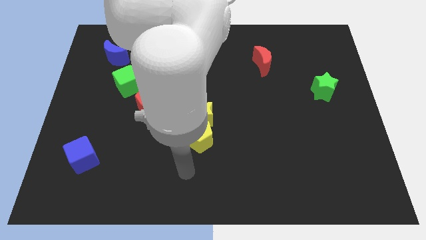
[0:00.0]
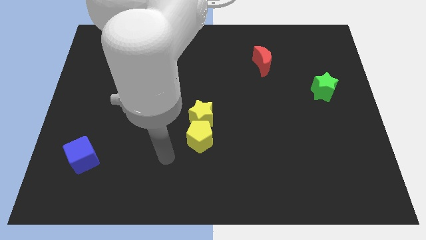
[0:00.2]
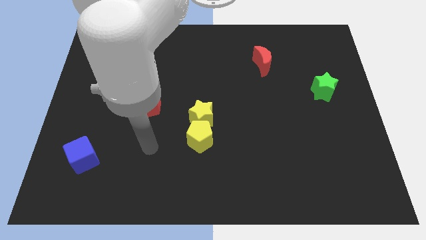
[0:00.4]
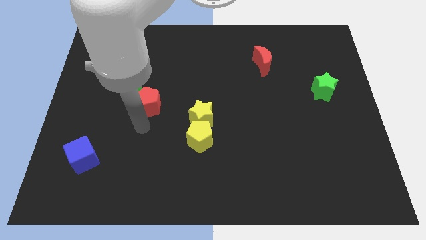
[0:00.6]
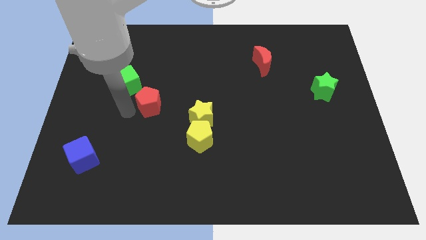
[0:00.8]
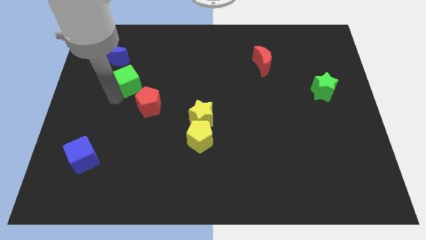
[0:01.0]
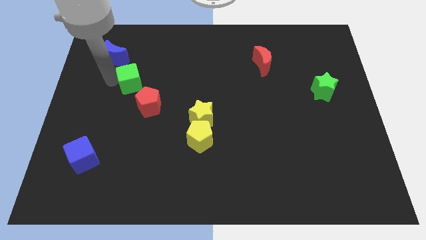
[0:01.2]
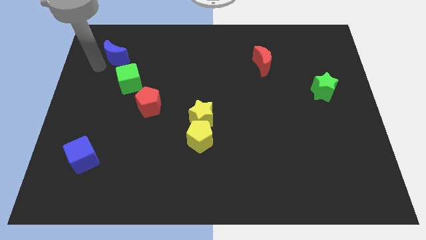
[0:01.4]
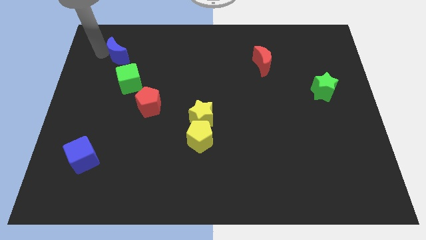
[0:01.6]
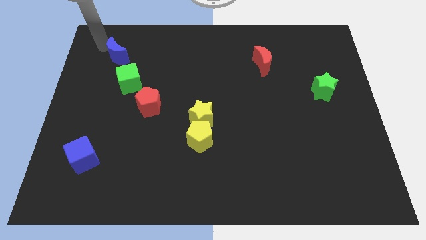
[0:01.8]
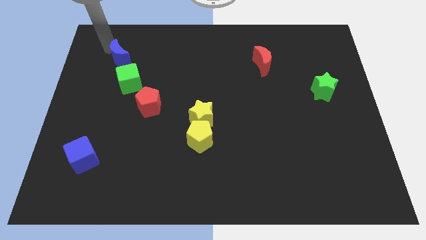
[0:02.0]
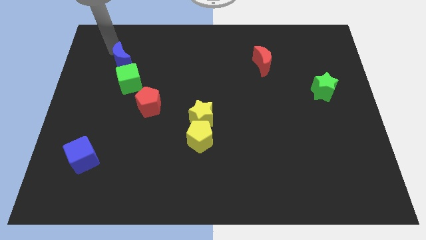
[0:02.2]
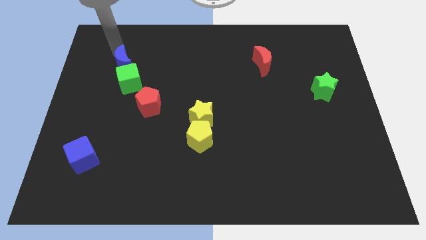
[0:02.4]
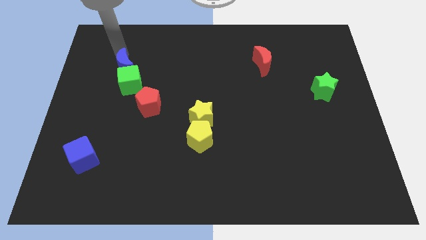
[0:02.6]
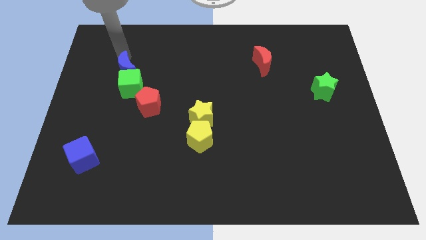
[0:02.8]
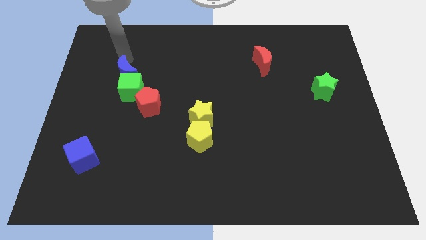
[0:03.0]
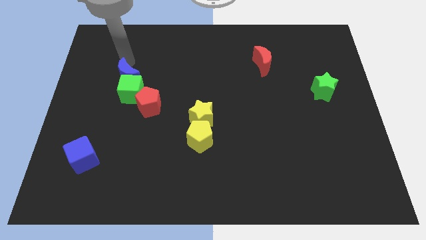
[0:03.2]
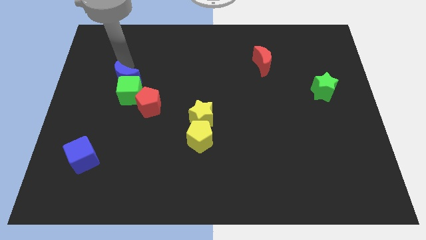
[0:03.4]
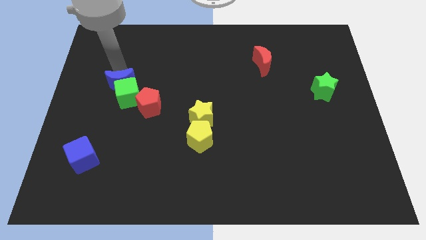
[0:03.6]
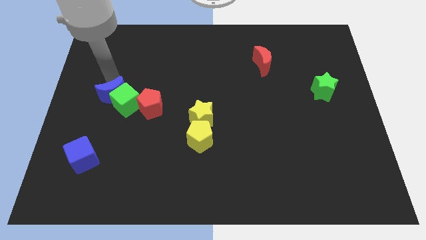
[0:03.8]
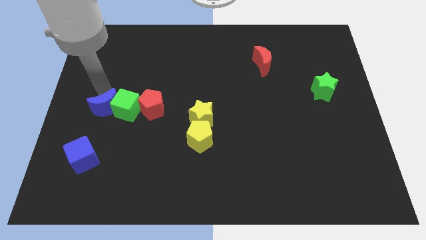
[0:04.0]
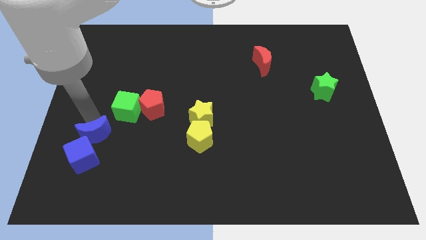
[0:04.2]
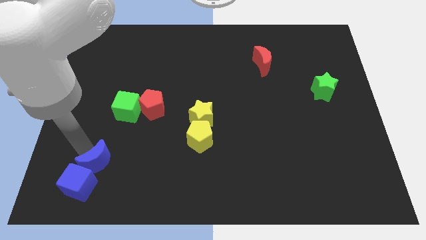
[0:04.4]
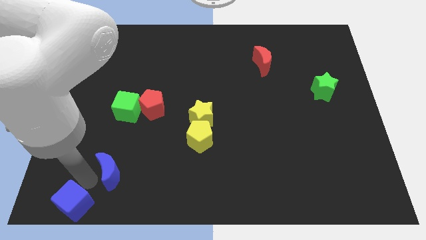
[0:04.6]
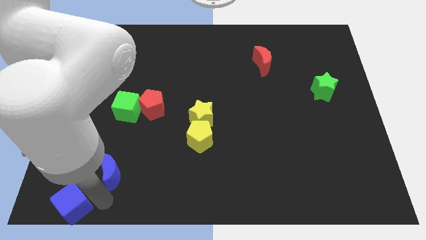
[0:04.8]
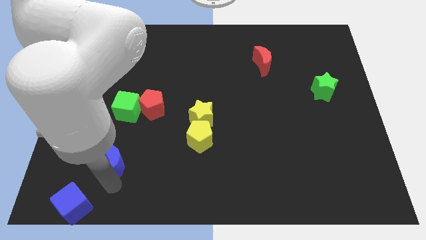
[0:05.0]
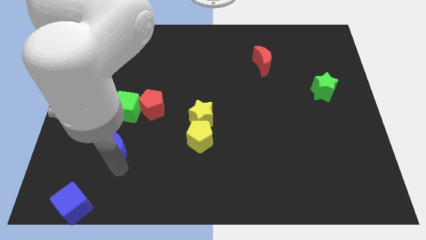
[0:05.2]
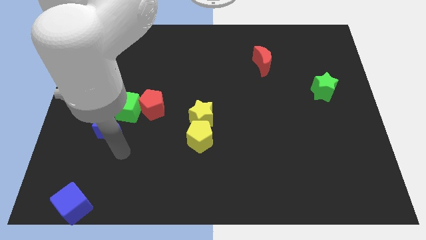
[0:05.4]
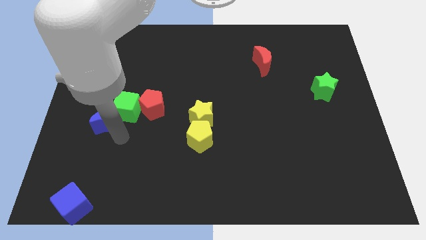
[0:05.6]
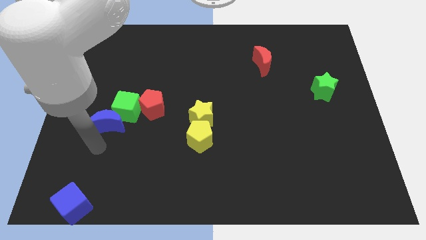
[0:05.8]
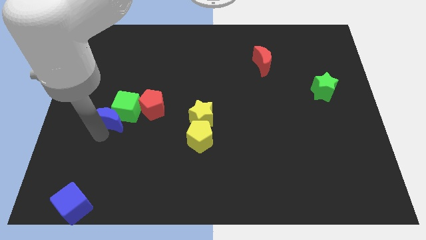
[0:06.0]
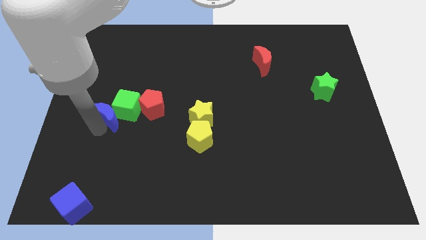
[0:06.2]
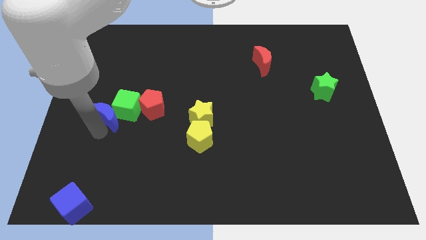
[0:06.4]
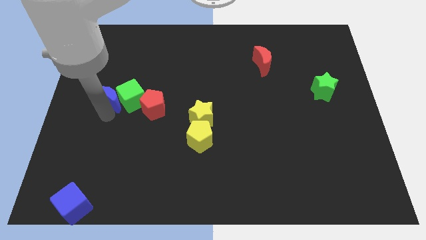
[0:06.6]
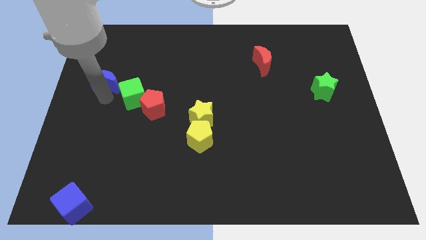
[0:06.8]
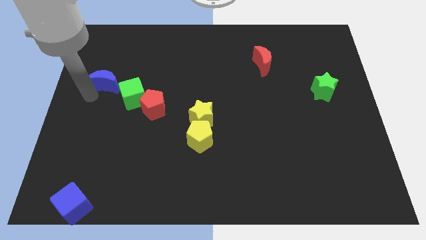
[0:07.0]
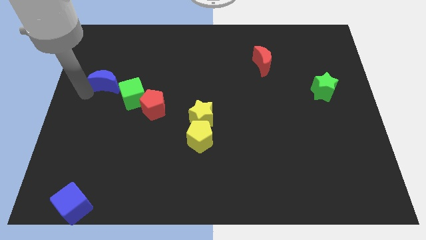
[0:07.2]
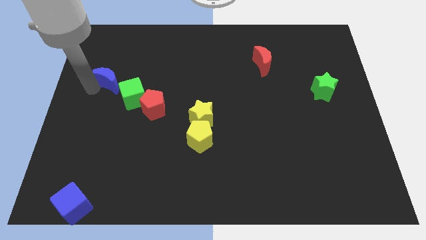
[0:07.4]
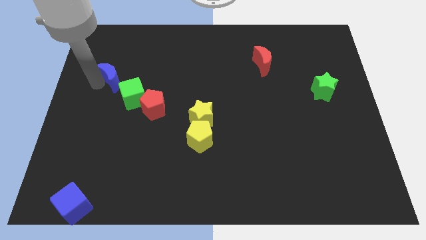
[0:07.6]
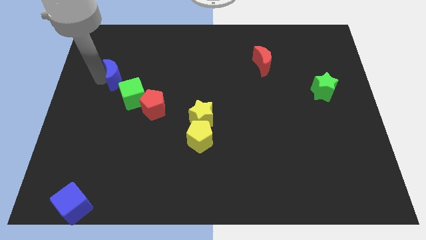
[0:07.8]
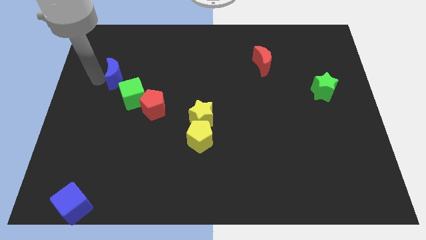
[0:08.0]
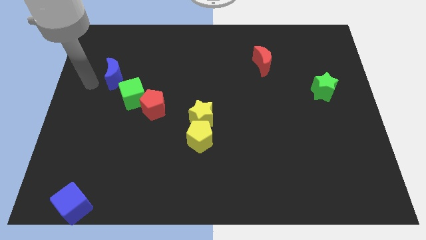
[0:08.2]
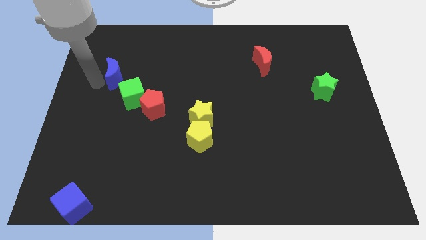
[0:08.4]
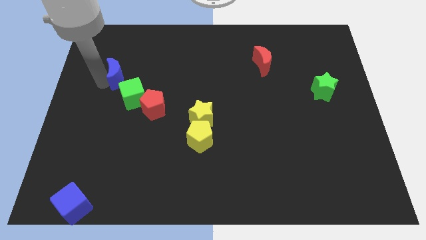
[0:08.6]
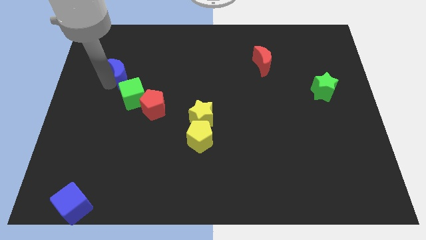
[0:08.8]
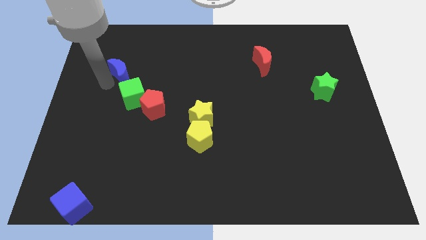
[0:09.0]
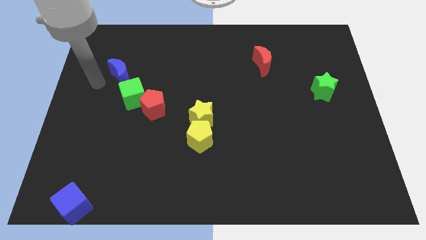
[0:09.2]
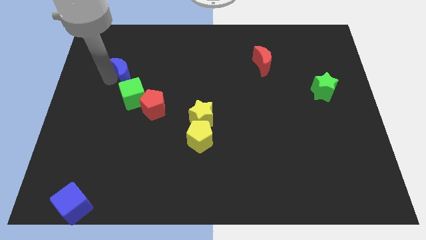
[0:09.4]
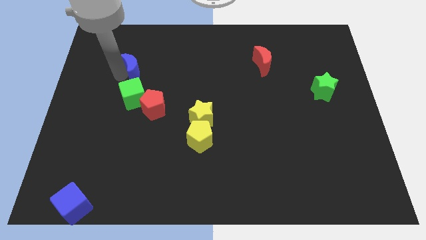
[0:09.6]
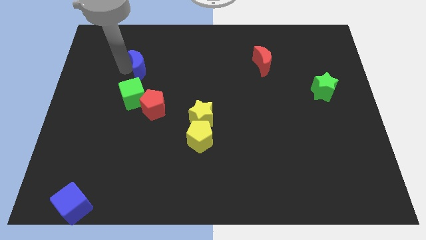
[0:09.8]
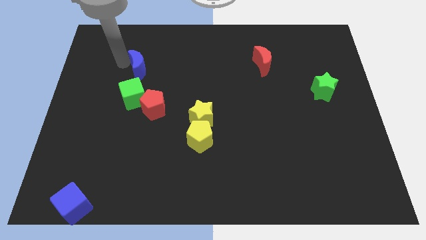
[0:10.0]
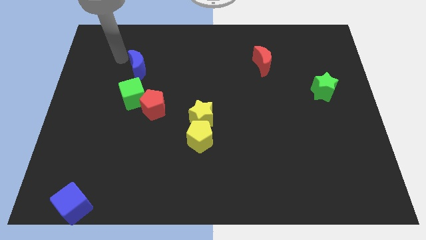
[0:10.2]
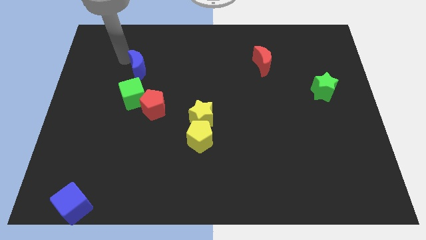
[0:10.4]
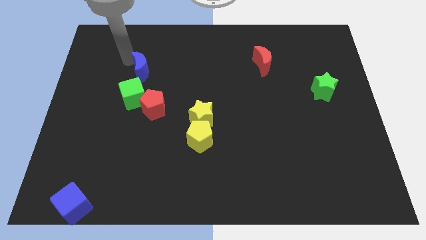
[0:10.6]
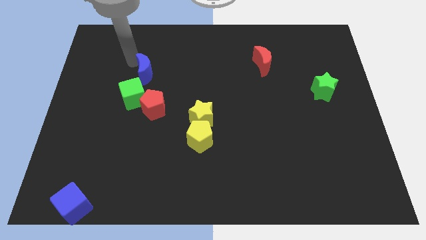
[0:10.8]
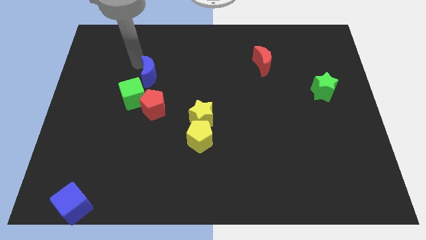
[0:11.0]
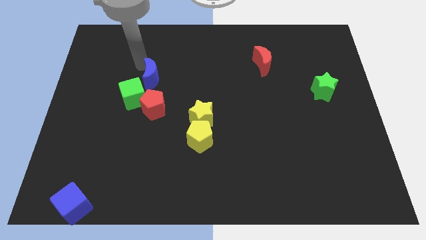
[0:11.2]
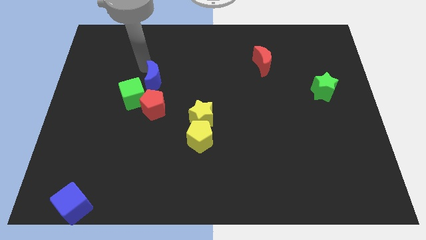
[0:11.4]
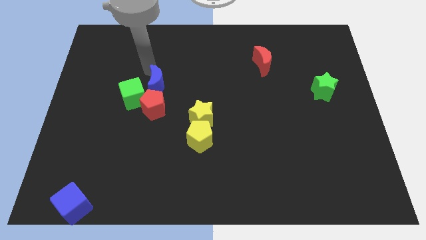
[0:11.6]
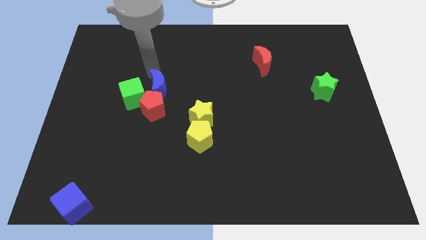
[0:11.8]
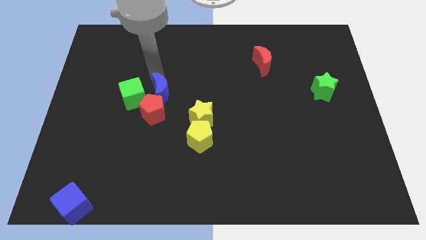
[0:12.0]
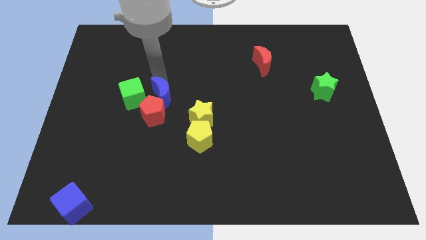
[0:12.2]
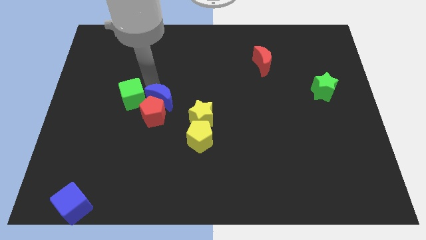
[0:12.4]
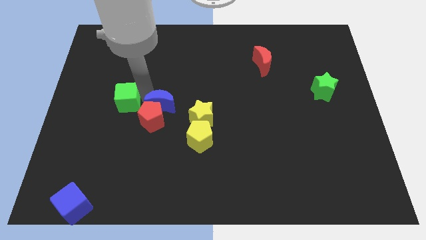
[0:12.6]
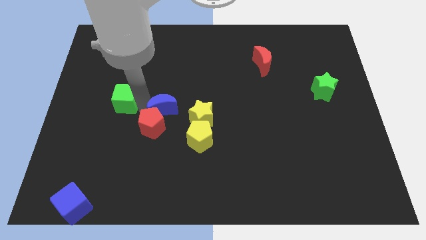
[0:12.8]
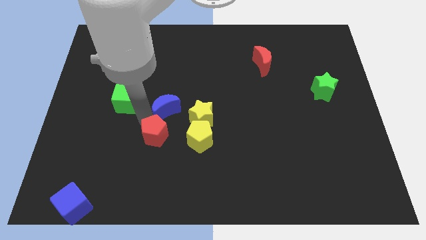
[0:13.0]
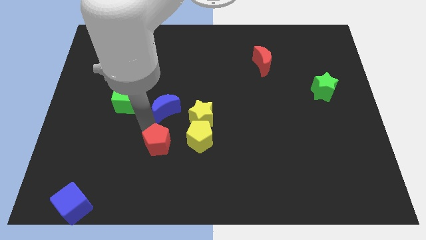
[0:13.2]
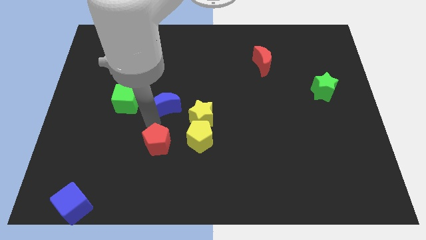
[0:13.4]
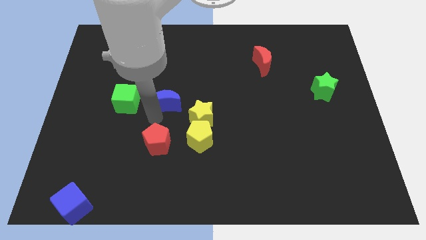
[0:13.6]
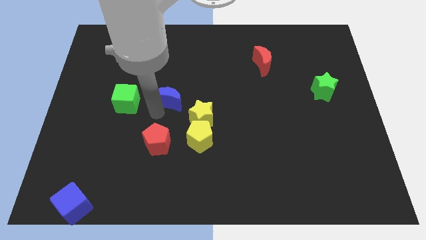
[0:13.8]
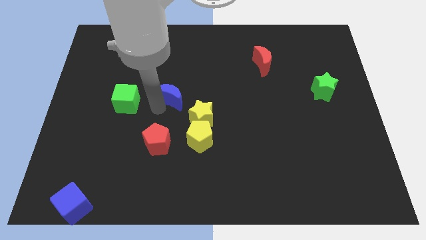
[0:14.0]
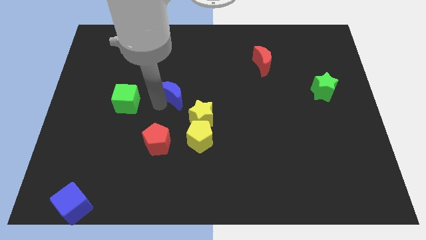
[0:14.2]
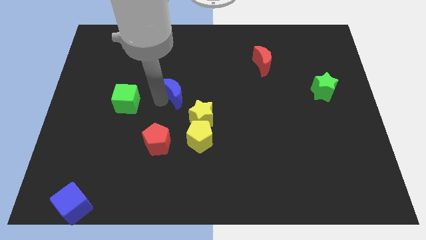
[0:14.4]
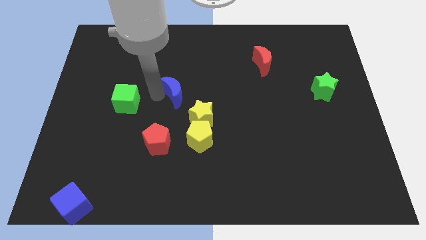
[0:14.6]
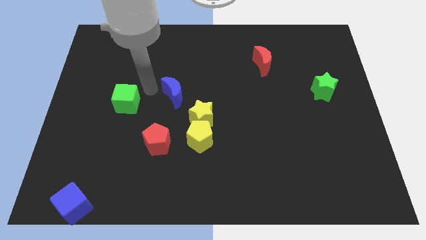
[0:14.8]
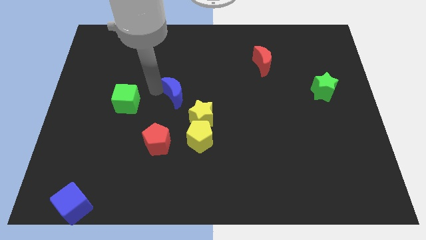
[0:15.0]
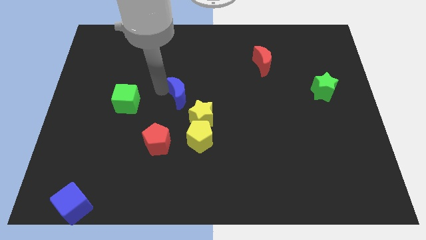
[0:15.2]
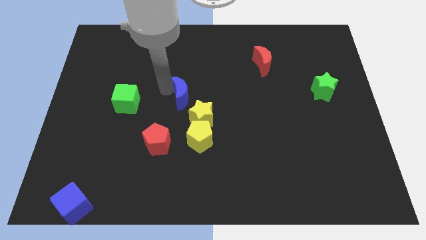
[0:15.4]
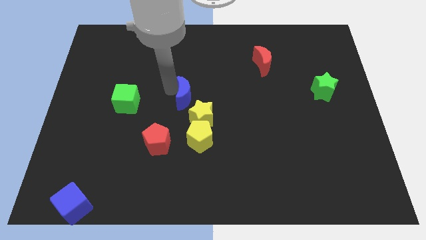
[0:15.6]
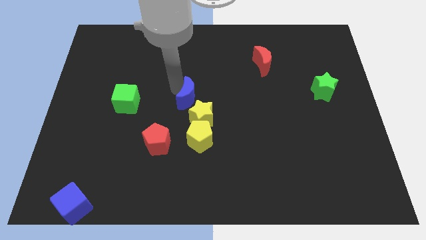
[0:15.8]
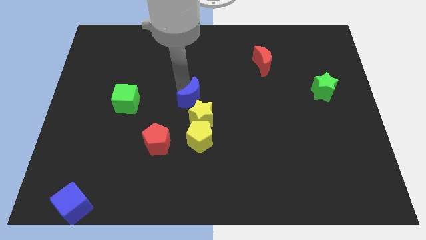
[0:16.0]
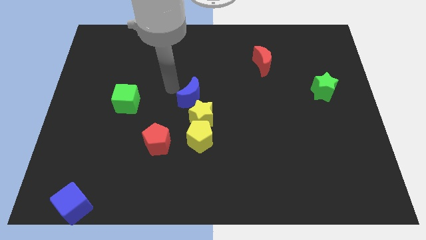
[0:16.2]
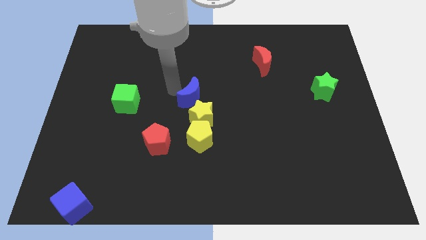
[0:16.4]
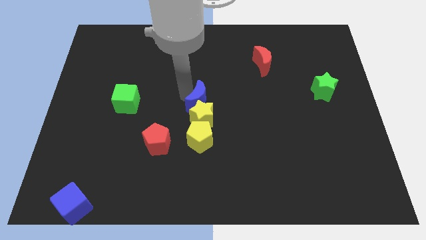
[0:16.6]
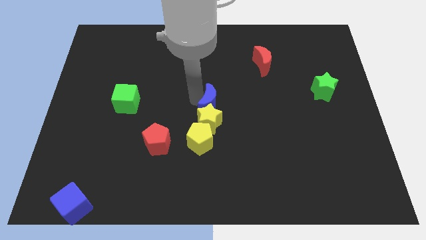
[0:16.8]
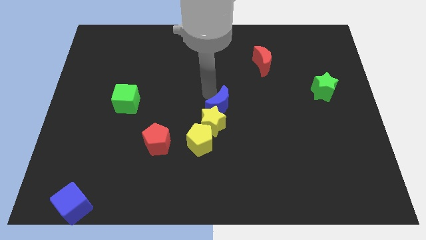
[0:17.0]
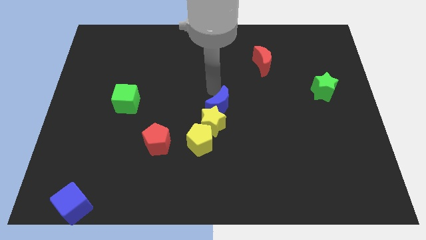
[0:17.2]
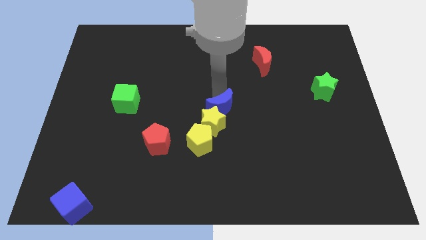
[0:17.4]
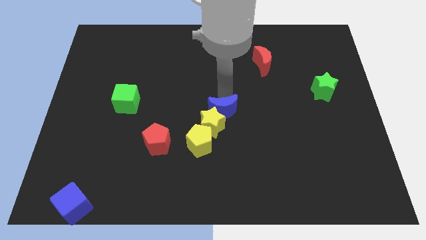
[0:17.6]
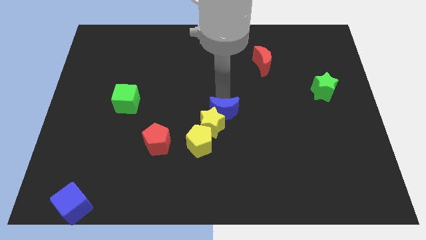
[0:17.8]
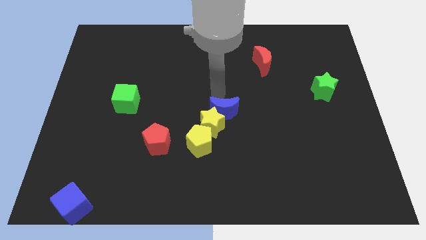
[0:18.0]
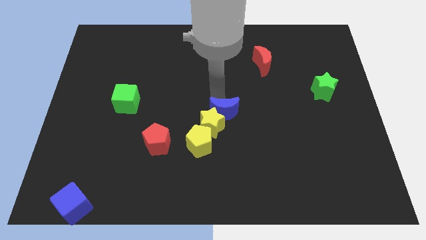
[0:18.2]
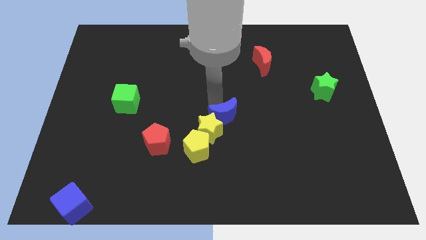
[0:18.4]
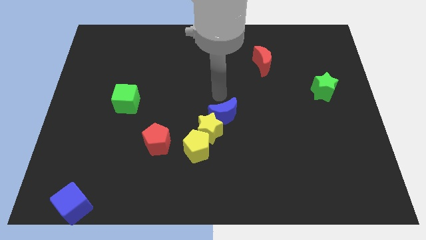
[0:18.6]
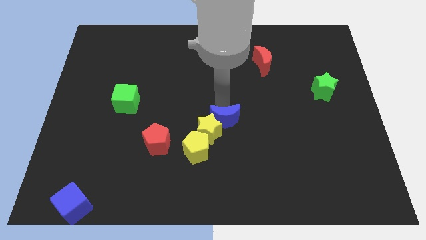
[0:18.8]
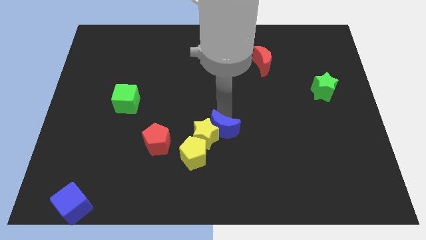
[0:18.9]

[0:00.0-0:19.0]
push the blue moon diagonally down and to the right of the yellow star
